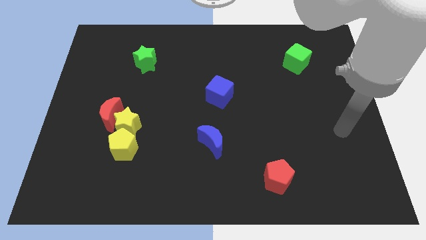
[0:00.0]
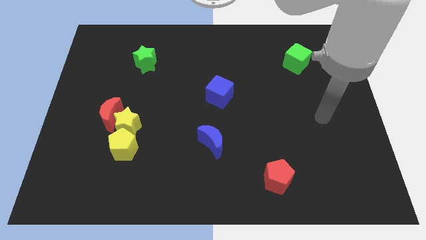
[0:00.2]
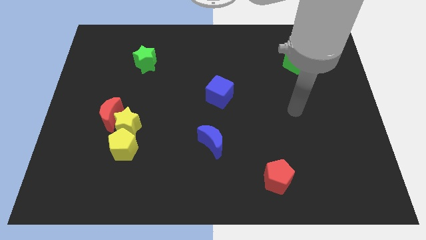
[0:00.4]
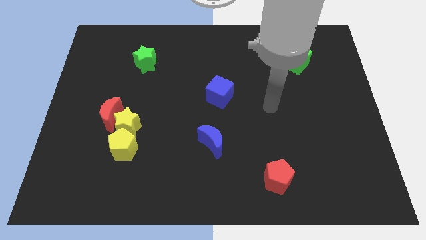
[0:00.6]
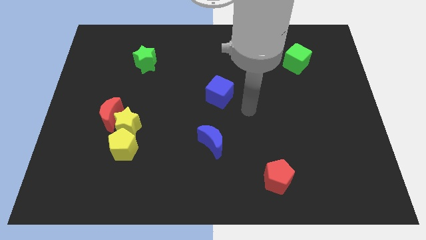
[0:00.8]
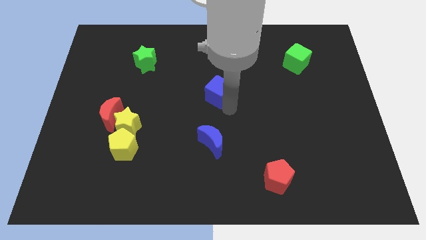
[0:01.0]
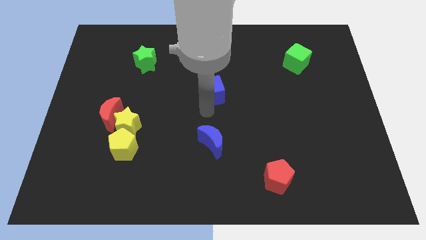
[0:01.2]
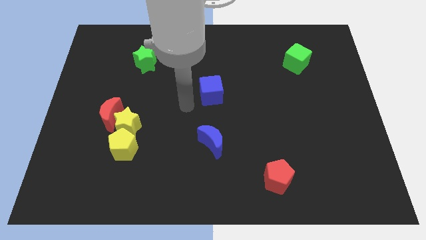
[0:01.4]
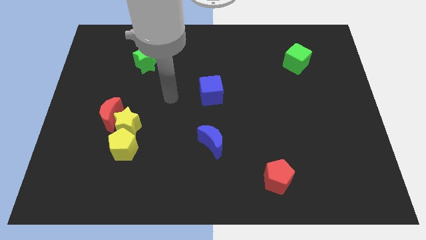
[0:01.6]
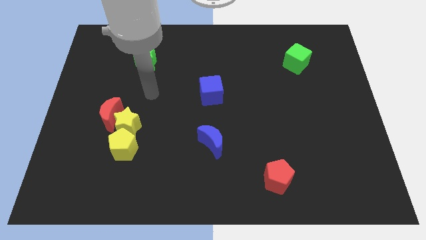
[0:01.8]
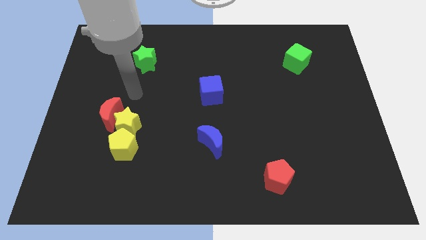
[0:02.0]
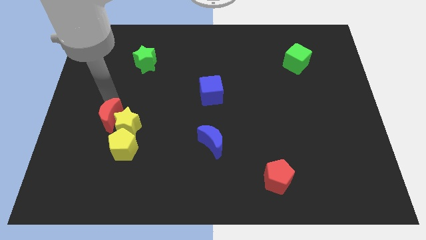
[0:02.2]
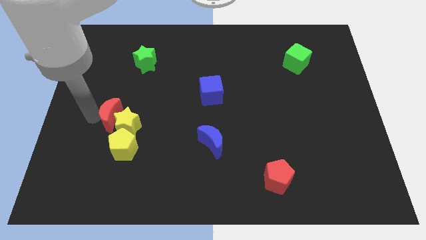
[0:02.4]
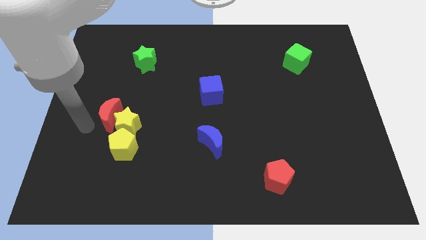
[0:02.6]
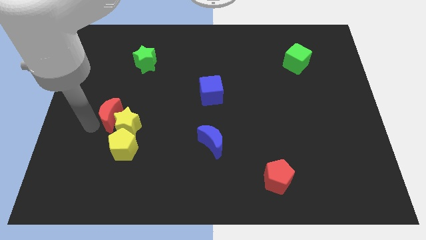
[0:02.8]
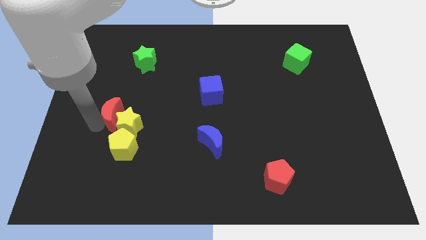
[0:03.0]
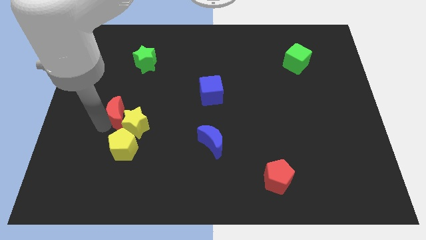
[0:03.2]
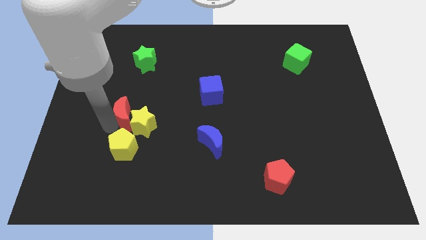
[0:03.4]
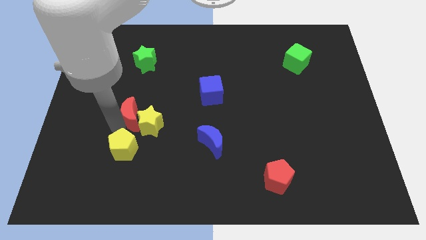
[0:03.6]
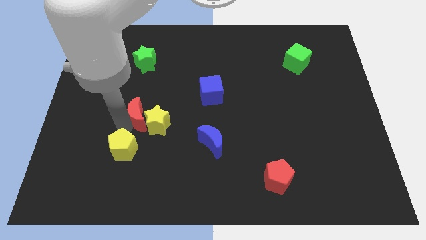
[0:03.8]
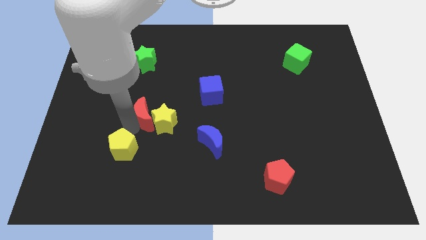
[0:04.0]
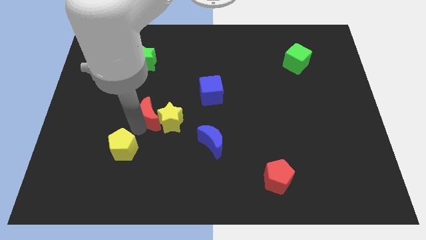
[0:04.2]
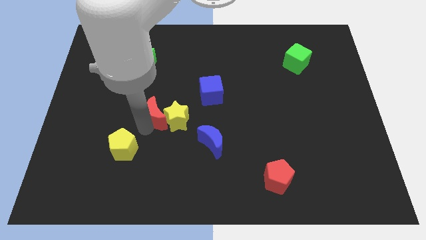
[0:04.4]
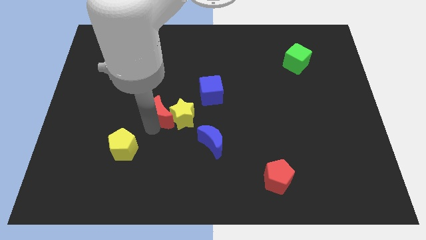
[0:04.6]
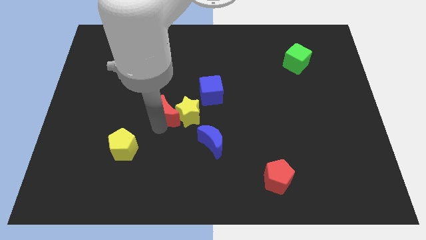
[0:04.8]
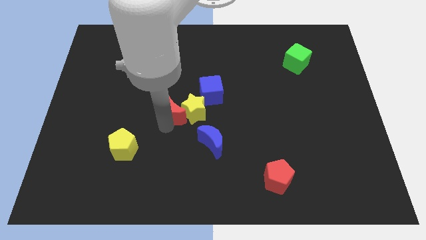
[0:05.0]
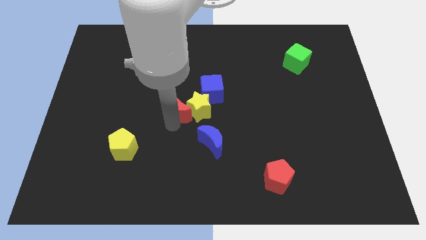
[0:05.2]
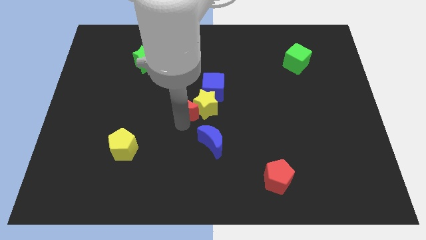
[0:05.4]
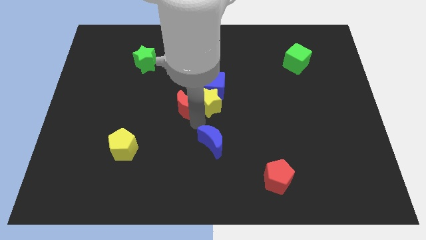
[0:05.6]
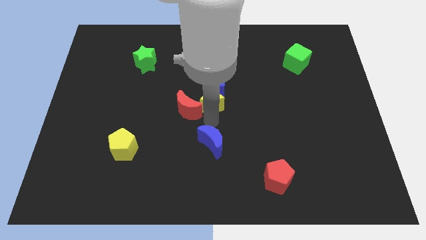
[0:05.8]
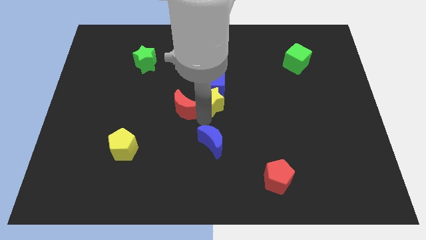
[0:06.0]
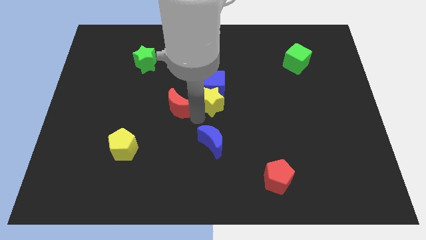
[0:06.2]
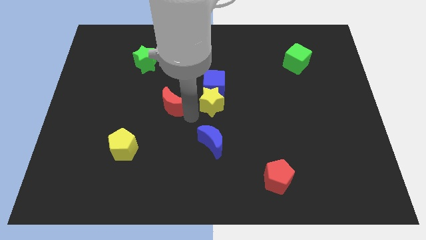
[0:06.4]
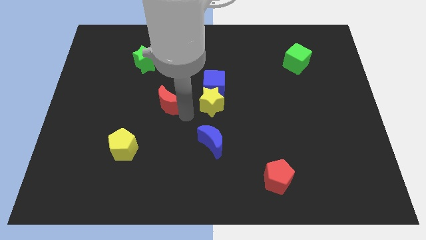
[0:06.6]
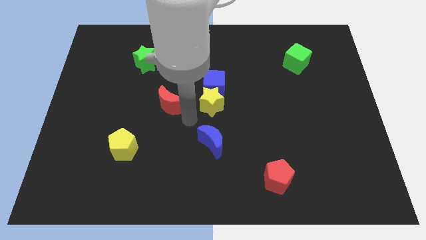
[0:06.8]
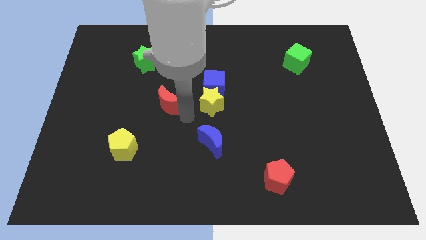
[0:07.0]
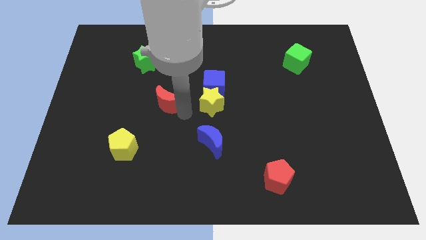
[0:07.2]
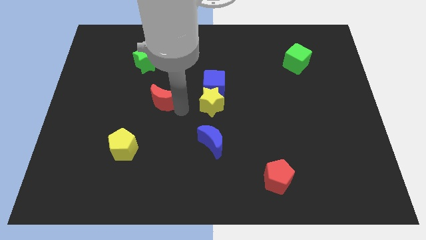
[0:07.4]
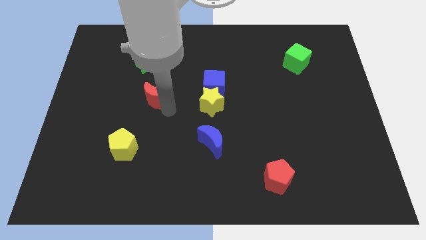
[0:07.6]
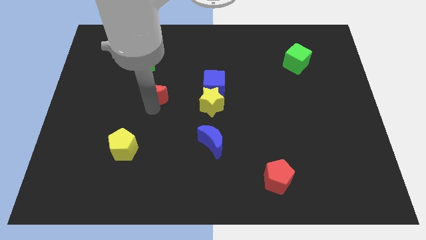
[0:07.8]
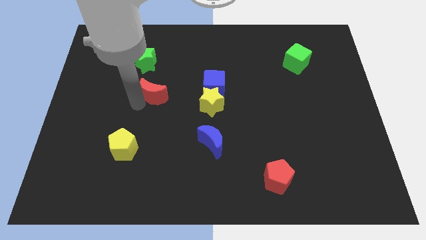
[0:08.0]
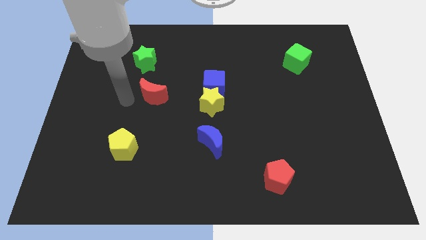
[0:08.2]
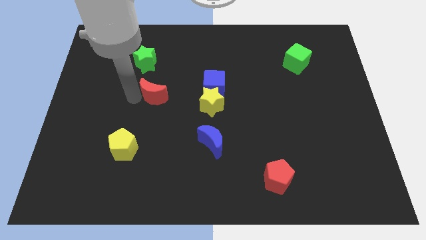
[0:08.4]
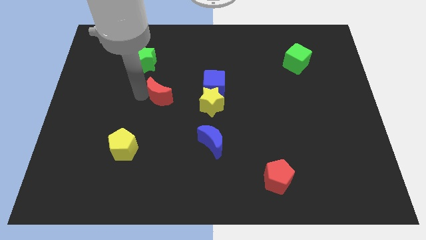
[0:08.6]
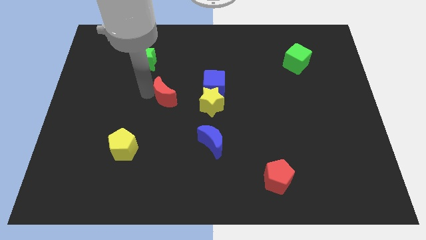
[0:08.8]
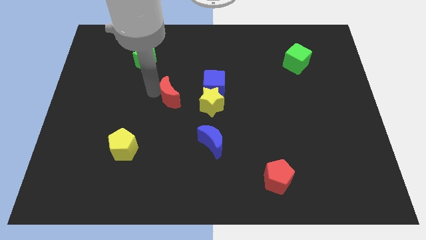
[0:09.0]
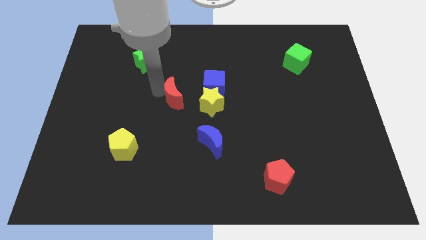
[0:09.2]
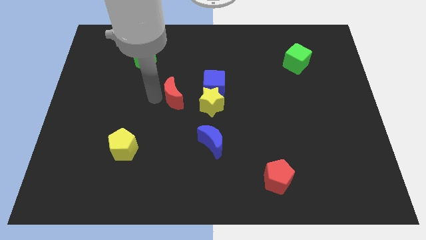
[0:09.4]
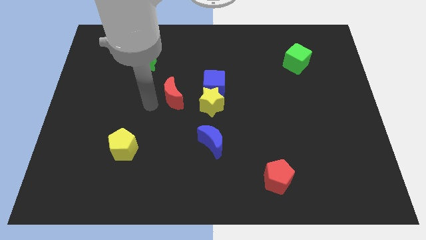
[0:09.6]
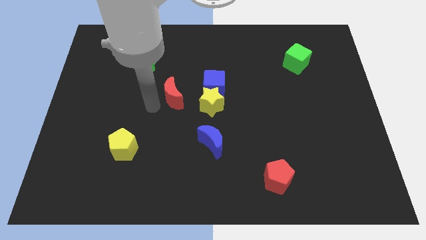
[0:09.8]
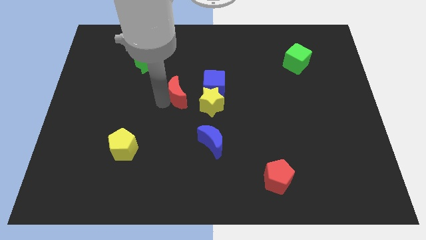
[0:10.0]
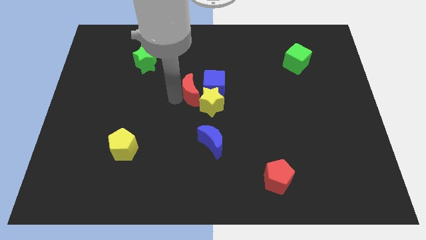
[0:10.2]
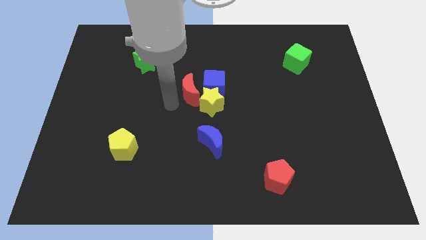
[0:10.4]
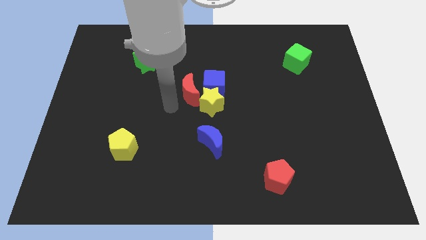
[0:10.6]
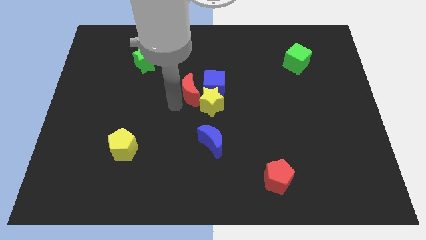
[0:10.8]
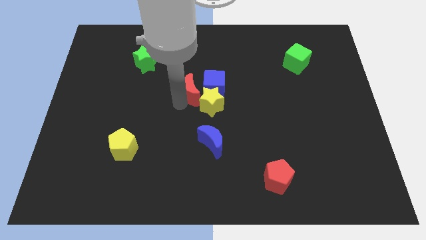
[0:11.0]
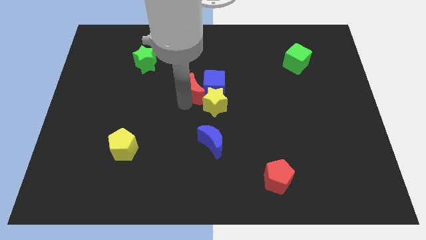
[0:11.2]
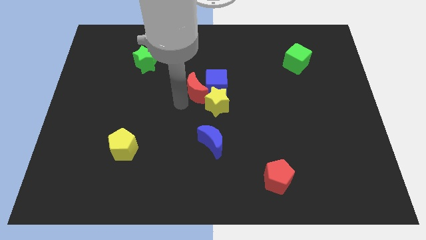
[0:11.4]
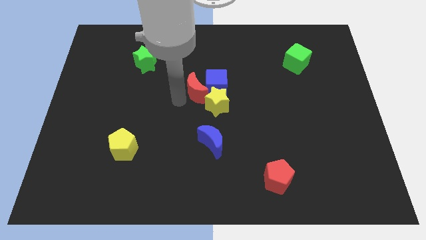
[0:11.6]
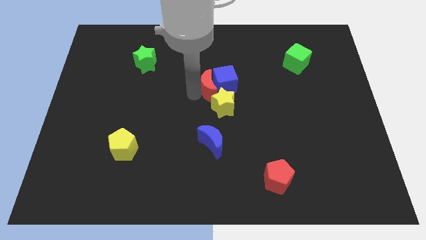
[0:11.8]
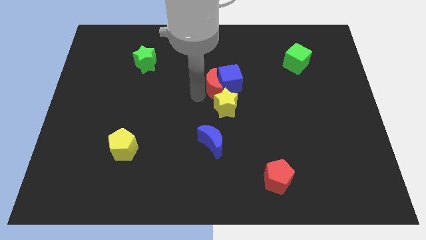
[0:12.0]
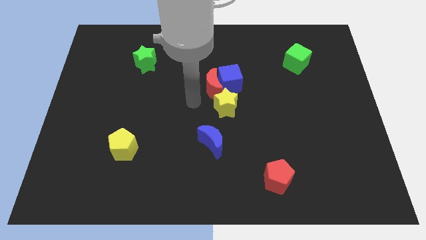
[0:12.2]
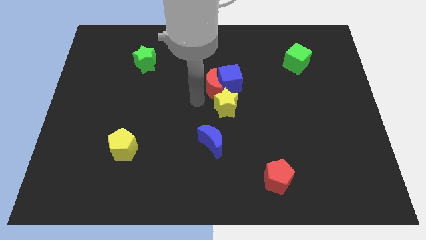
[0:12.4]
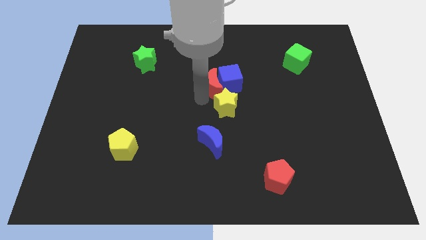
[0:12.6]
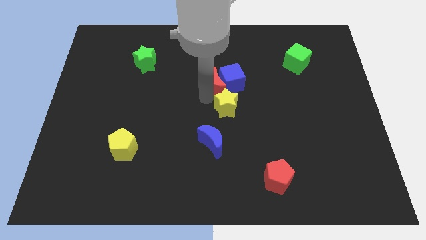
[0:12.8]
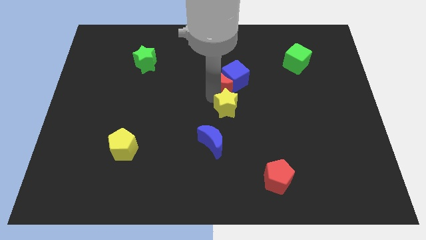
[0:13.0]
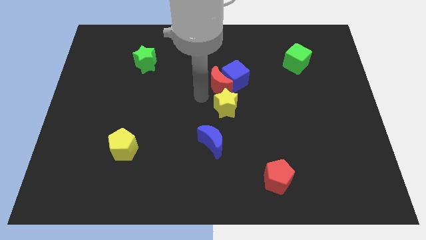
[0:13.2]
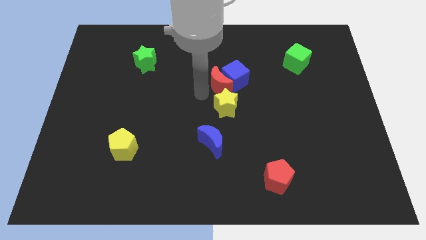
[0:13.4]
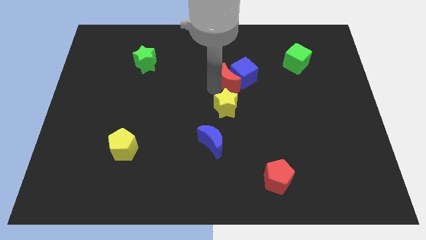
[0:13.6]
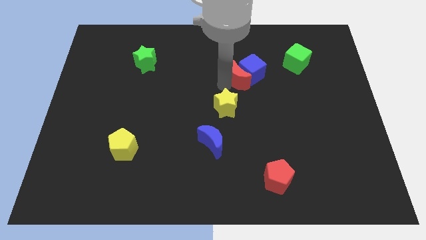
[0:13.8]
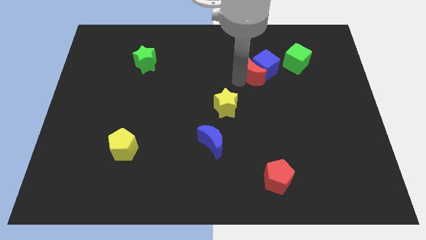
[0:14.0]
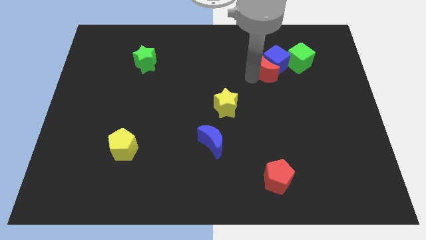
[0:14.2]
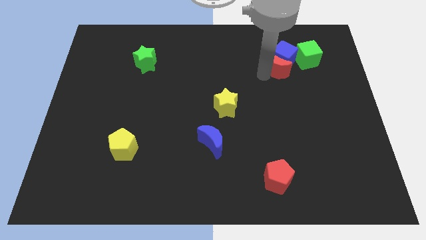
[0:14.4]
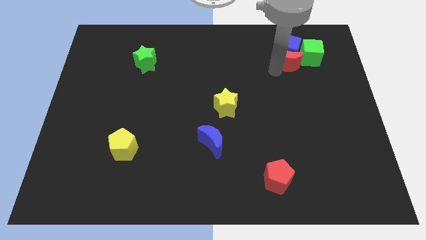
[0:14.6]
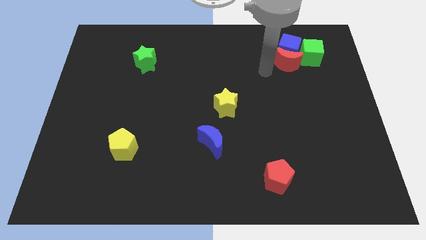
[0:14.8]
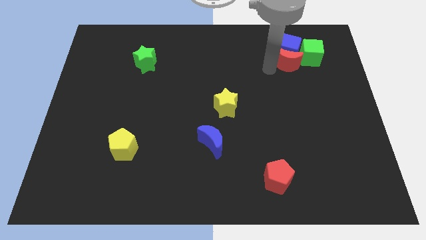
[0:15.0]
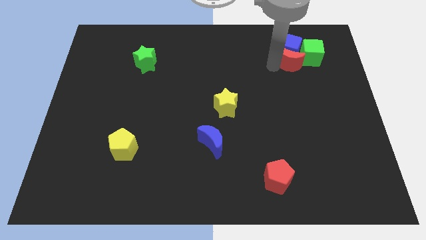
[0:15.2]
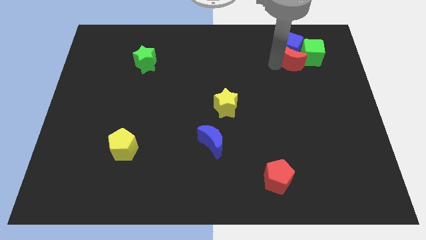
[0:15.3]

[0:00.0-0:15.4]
move the red moon close to the green cube
